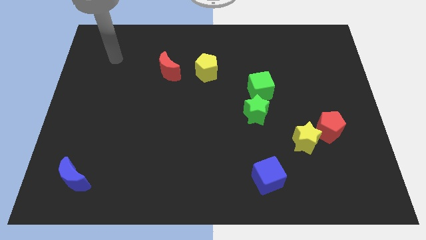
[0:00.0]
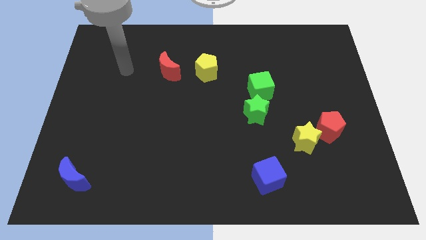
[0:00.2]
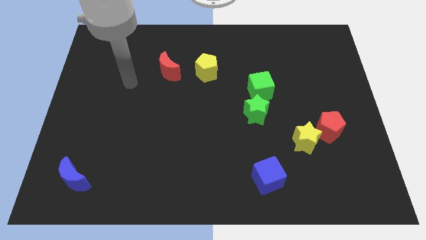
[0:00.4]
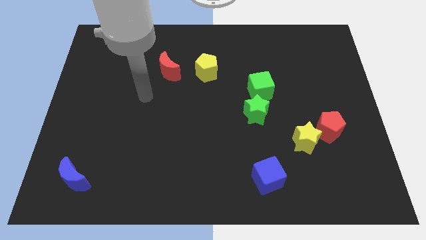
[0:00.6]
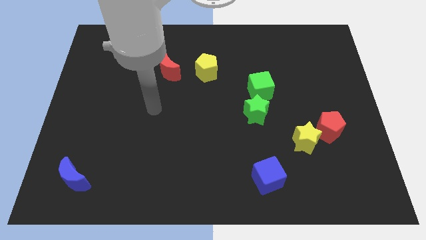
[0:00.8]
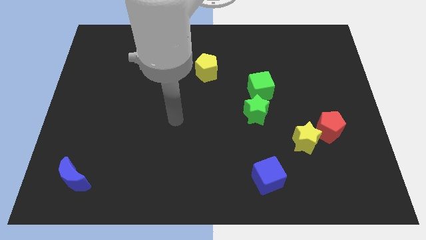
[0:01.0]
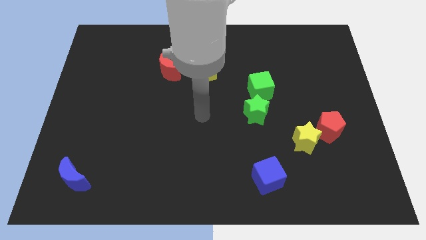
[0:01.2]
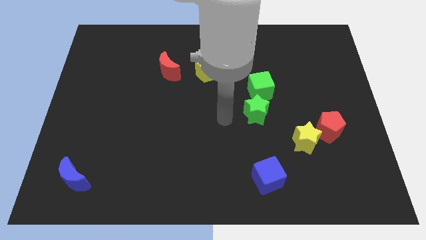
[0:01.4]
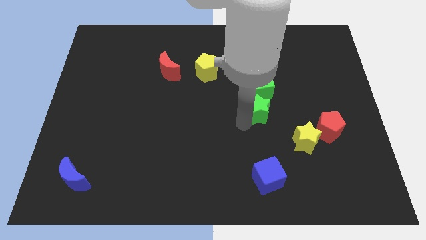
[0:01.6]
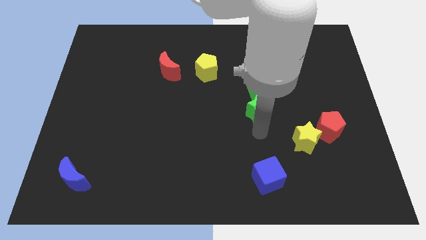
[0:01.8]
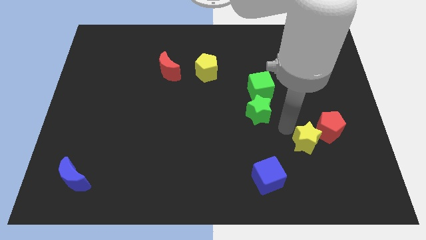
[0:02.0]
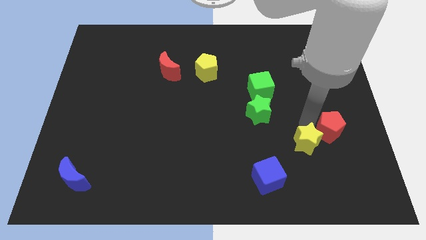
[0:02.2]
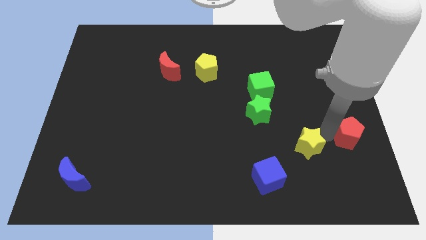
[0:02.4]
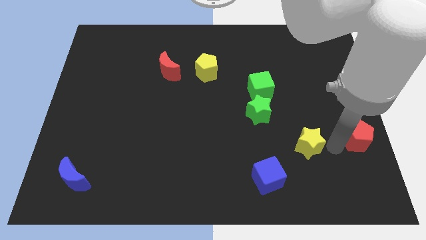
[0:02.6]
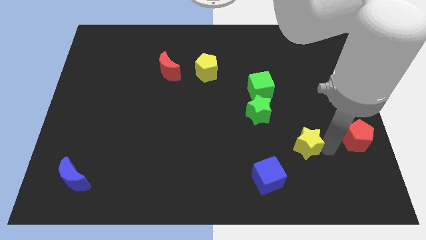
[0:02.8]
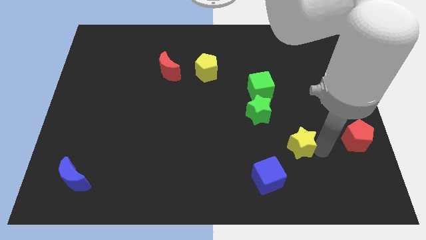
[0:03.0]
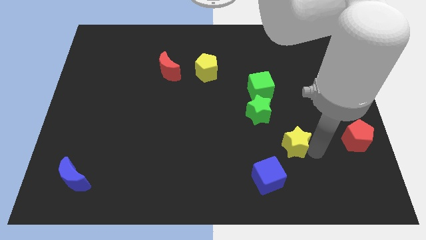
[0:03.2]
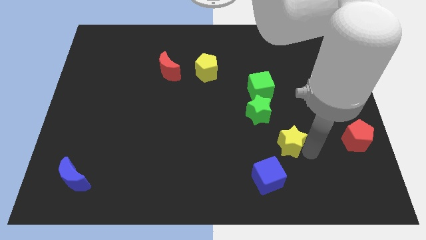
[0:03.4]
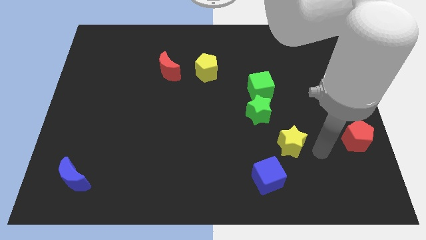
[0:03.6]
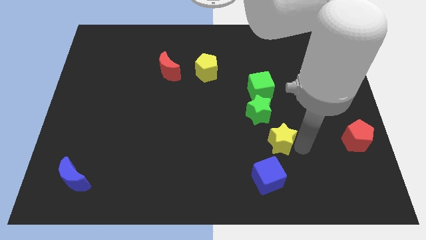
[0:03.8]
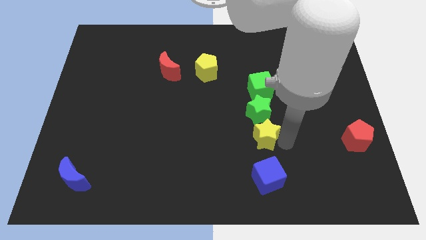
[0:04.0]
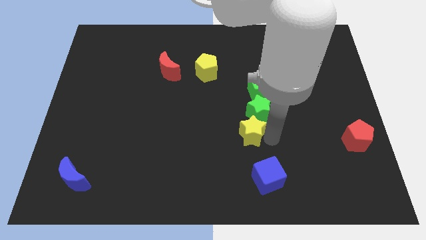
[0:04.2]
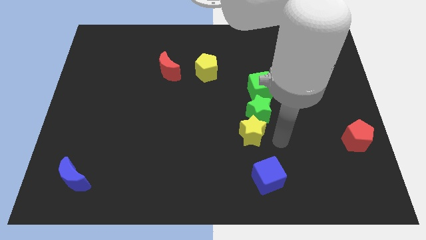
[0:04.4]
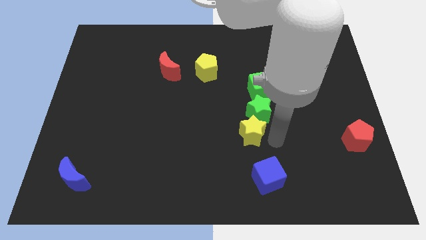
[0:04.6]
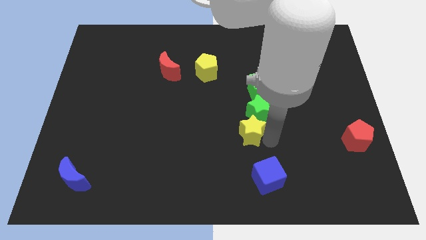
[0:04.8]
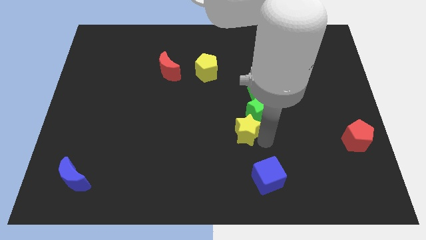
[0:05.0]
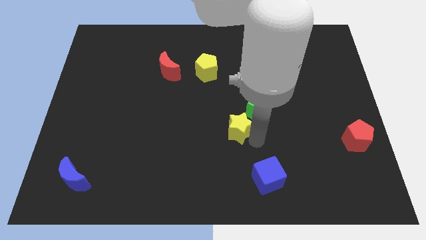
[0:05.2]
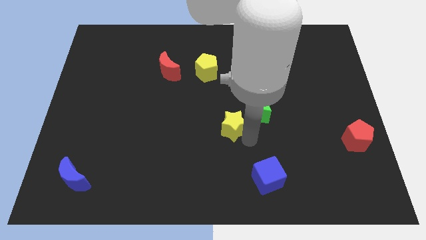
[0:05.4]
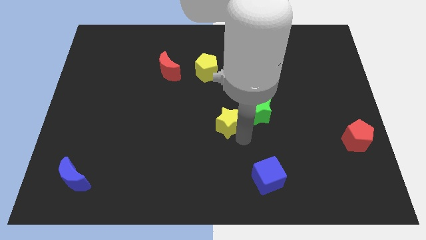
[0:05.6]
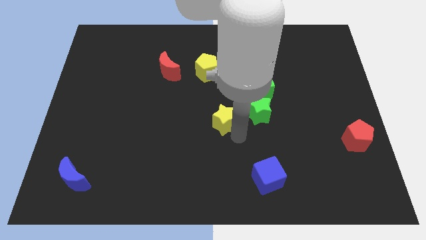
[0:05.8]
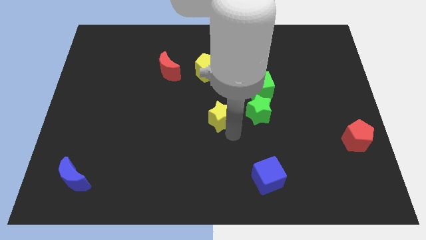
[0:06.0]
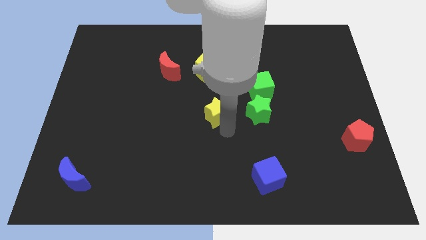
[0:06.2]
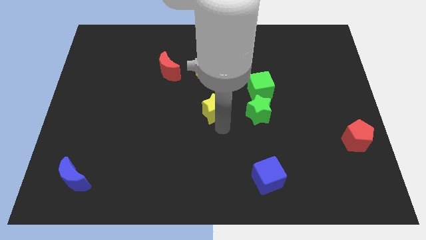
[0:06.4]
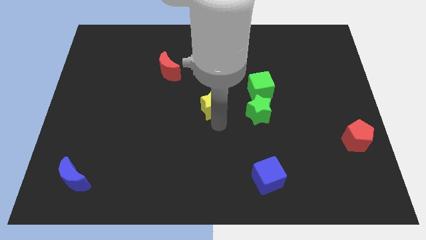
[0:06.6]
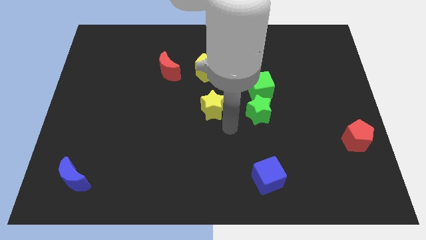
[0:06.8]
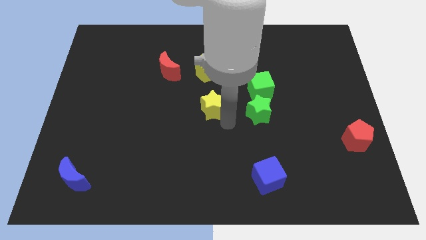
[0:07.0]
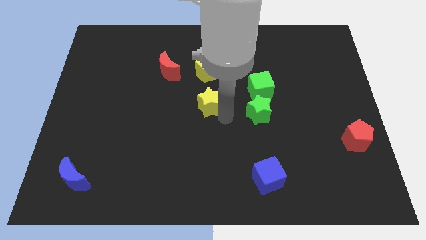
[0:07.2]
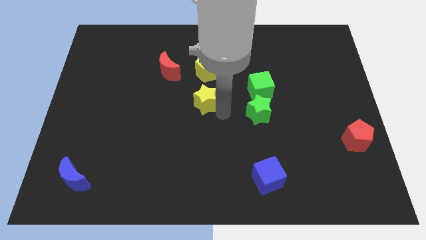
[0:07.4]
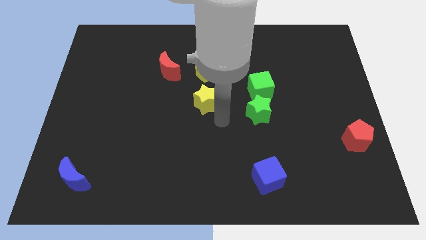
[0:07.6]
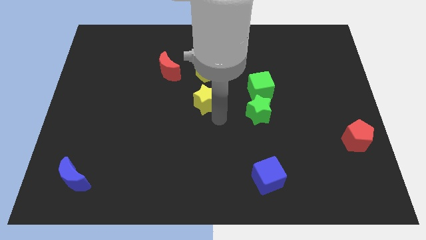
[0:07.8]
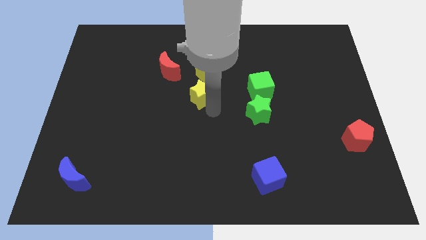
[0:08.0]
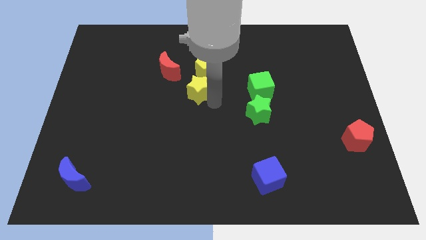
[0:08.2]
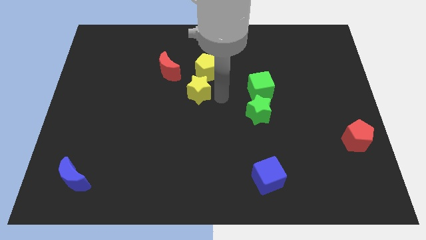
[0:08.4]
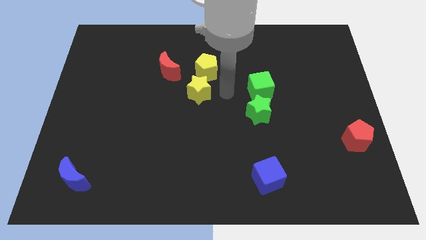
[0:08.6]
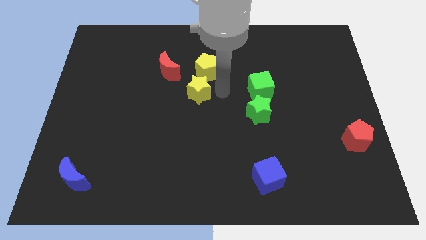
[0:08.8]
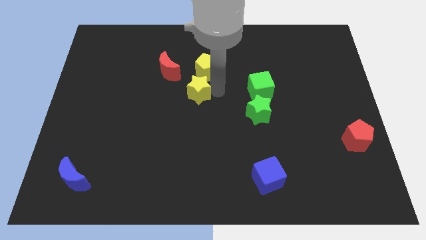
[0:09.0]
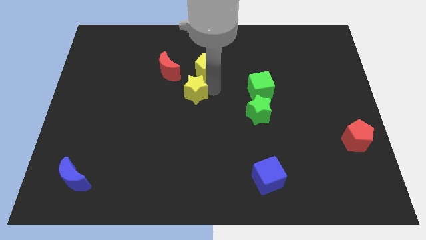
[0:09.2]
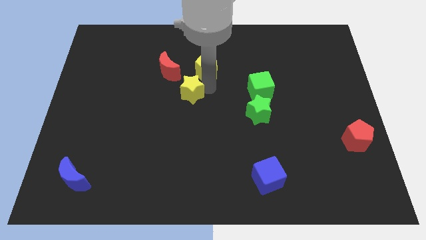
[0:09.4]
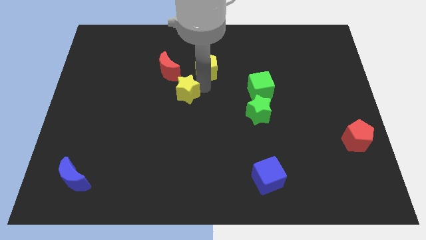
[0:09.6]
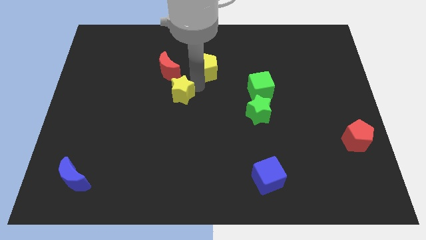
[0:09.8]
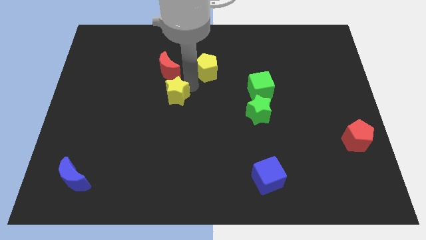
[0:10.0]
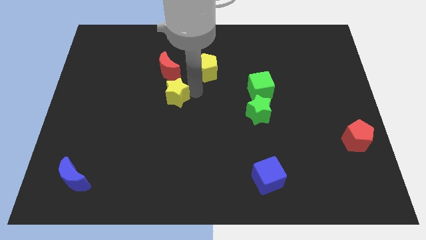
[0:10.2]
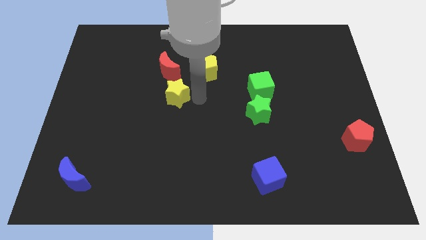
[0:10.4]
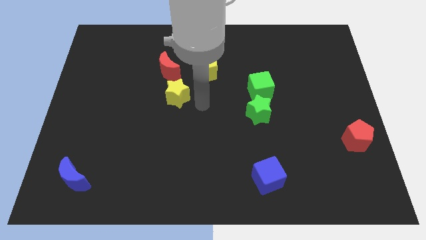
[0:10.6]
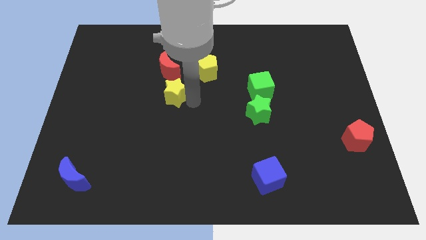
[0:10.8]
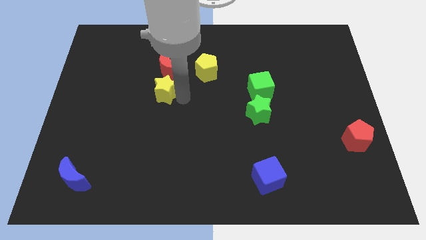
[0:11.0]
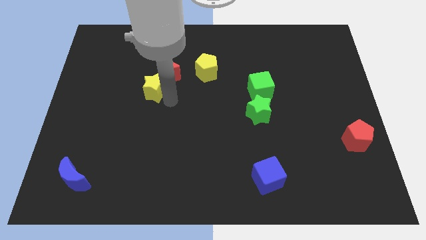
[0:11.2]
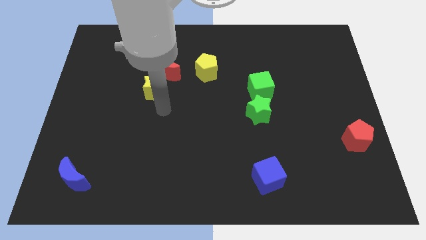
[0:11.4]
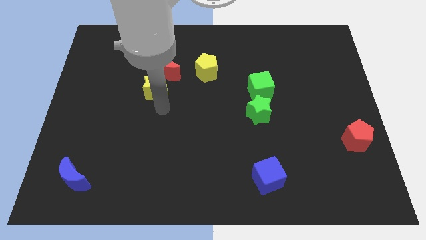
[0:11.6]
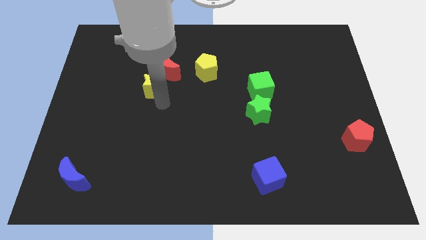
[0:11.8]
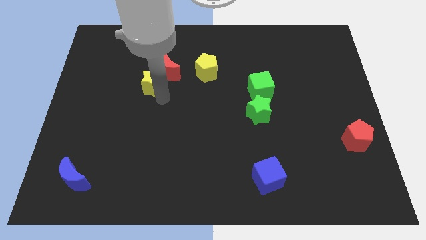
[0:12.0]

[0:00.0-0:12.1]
push the yellow star to the left side of the yellow pentagon

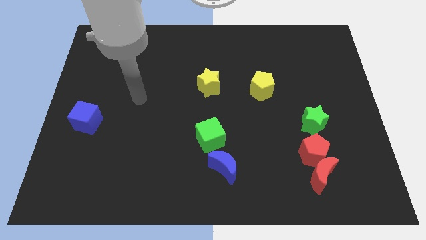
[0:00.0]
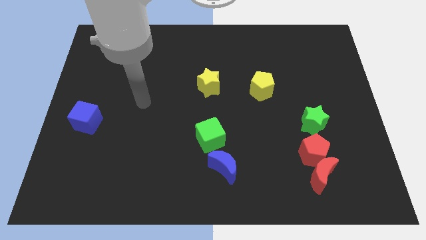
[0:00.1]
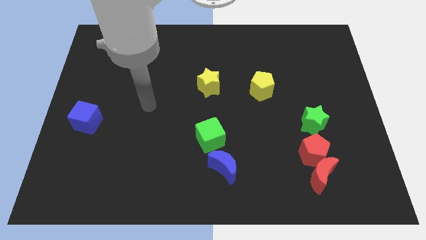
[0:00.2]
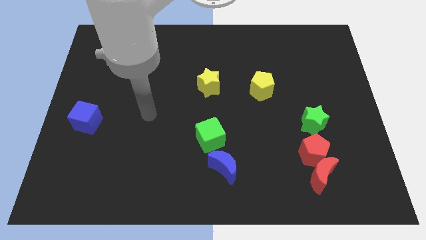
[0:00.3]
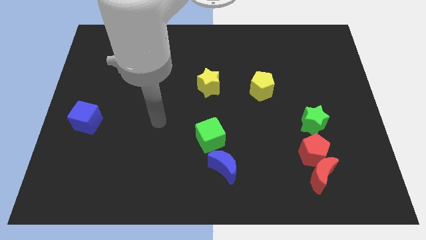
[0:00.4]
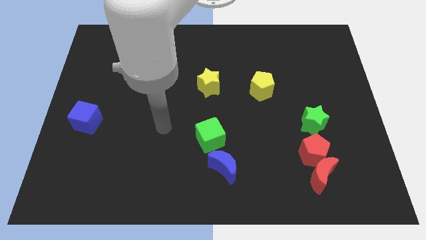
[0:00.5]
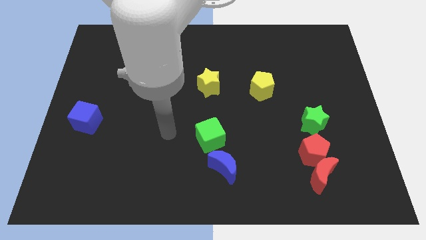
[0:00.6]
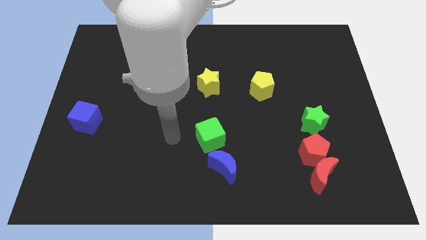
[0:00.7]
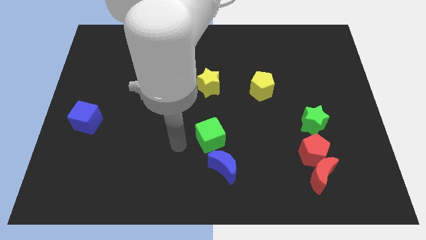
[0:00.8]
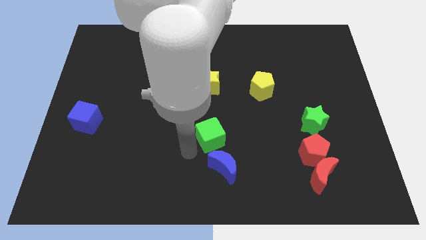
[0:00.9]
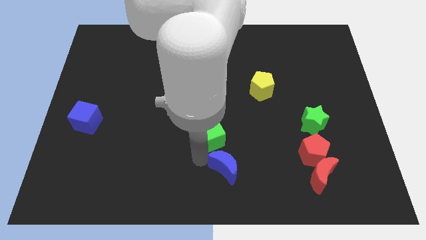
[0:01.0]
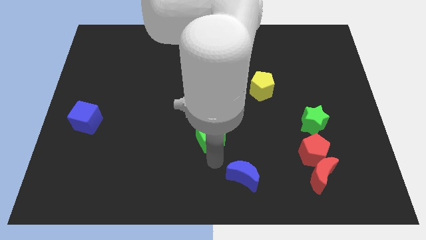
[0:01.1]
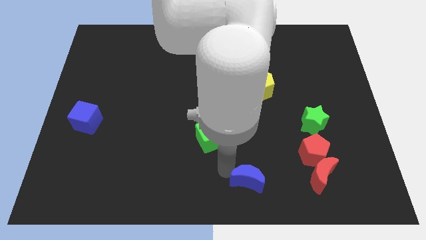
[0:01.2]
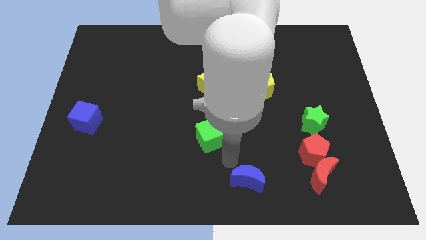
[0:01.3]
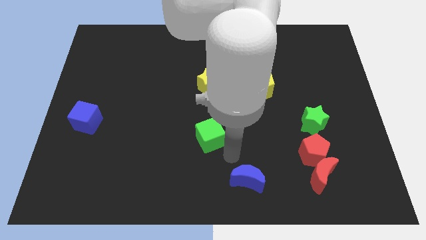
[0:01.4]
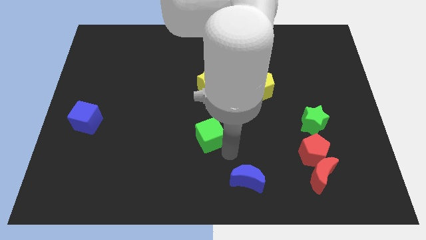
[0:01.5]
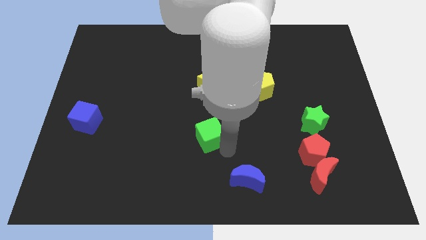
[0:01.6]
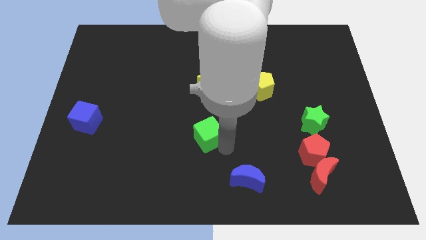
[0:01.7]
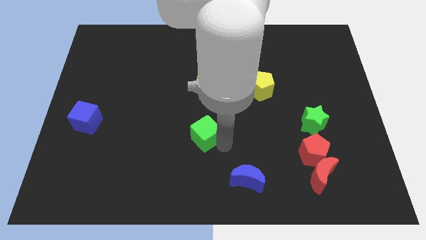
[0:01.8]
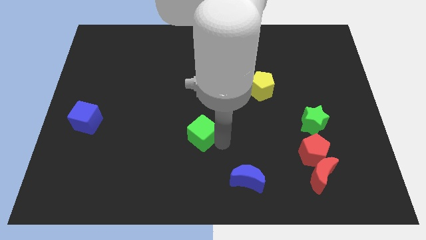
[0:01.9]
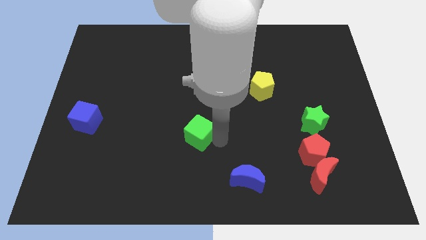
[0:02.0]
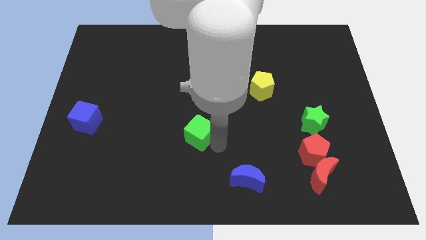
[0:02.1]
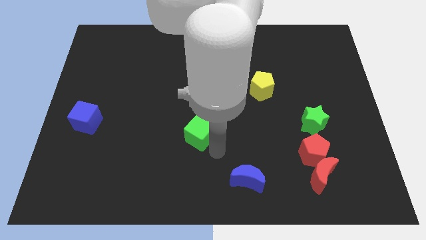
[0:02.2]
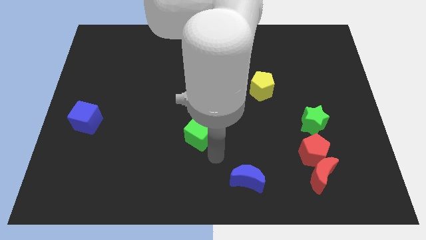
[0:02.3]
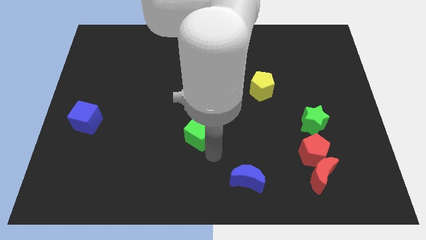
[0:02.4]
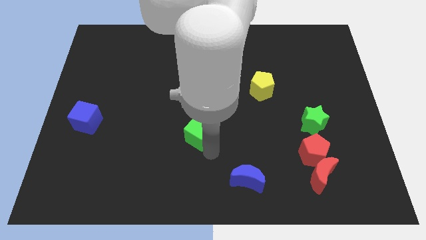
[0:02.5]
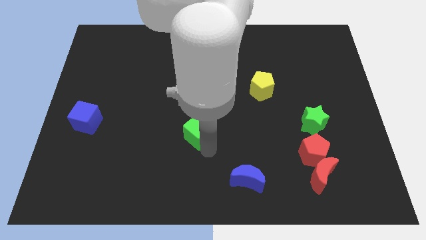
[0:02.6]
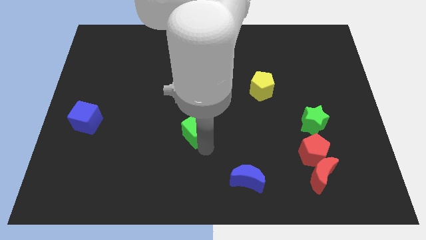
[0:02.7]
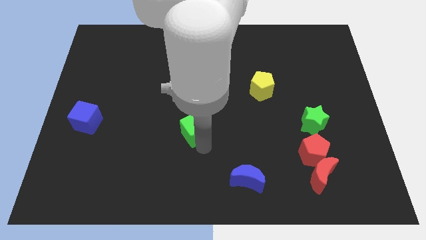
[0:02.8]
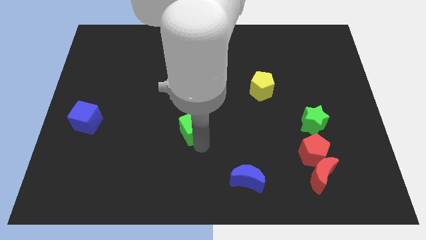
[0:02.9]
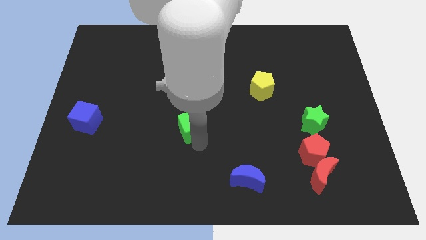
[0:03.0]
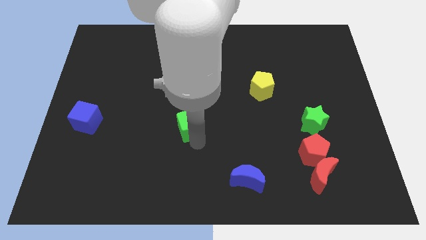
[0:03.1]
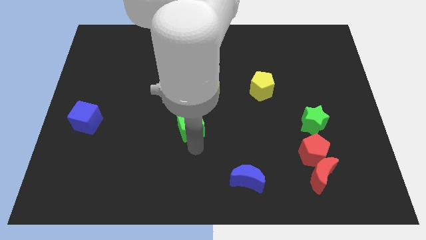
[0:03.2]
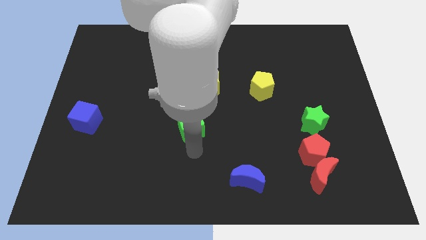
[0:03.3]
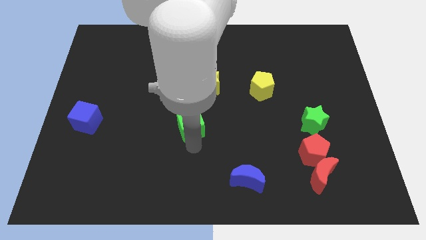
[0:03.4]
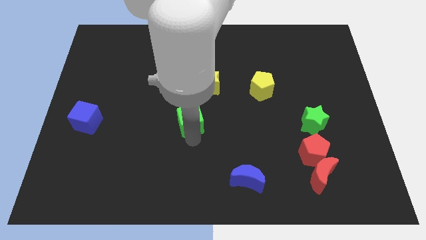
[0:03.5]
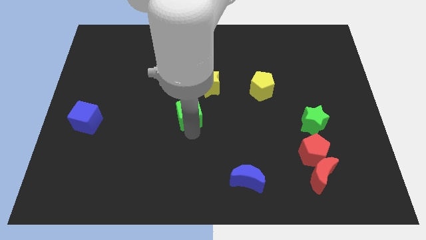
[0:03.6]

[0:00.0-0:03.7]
put the green cube to the bottom left of the yellow star
